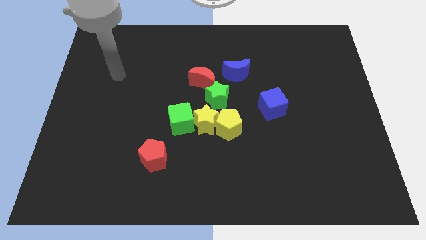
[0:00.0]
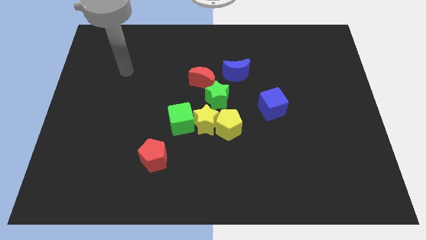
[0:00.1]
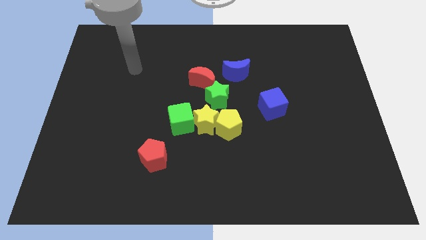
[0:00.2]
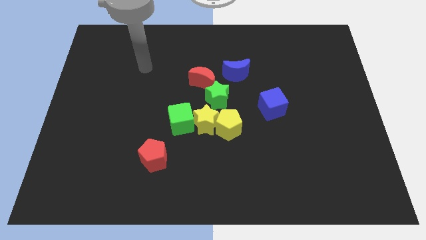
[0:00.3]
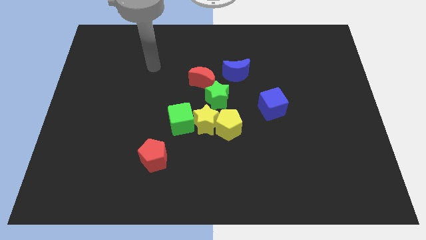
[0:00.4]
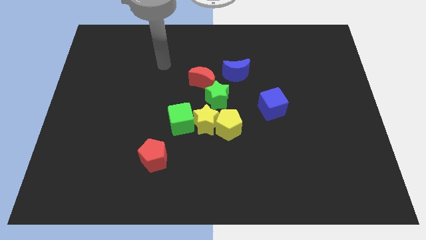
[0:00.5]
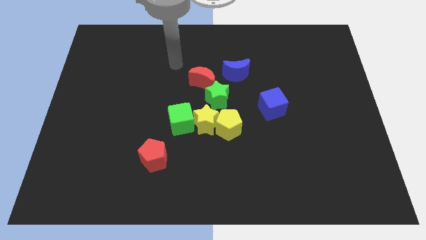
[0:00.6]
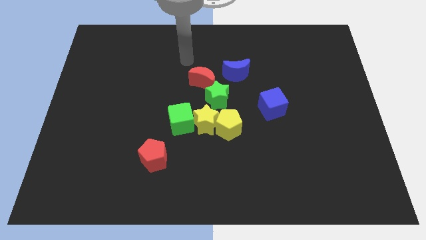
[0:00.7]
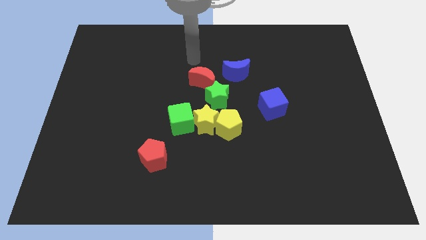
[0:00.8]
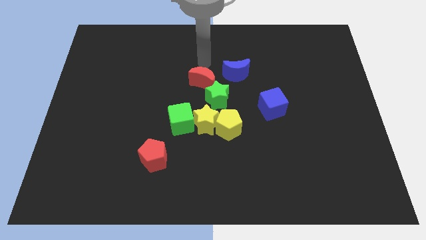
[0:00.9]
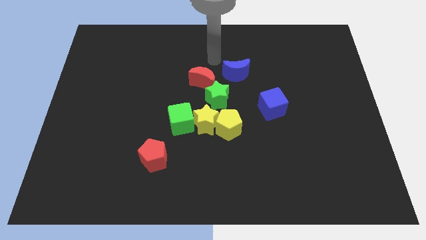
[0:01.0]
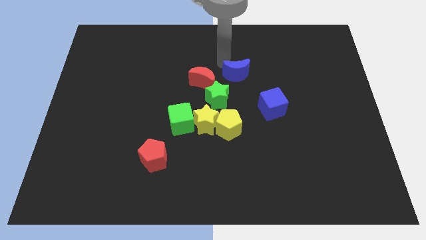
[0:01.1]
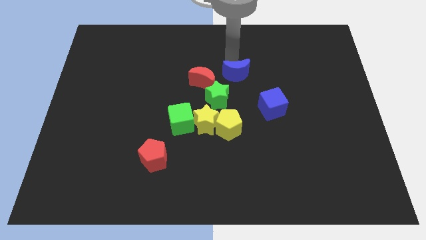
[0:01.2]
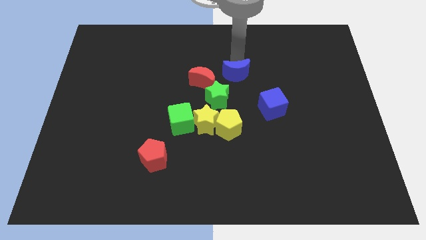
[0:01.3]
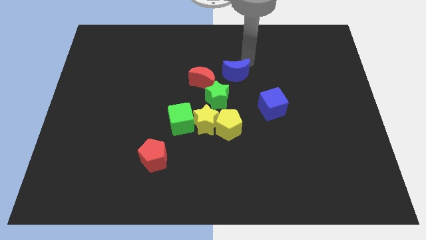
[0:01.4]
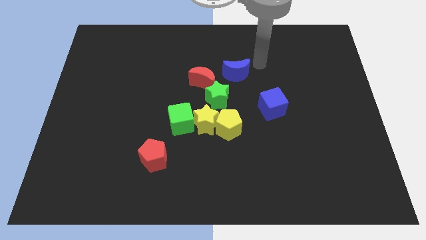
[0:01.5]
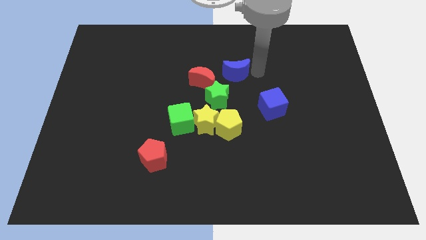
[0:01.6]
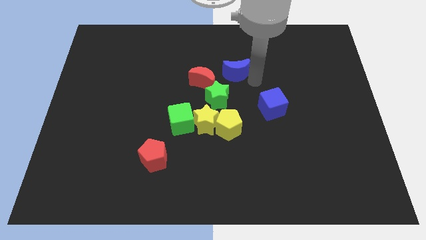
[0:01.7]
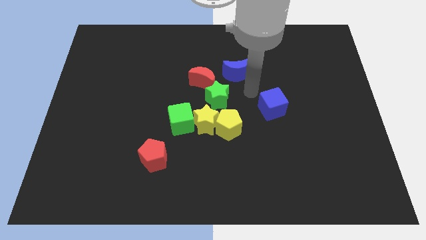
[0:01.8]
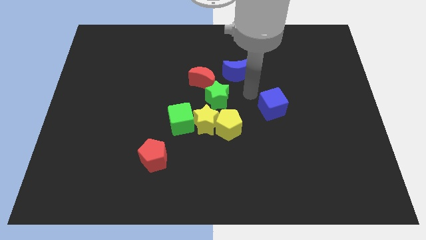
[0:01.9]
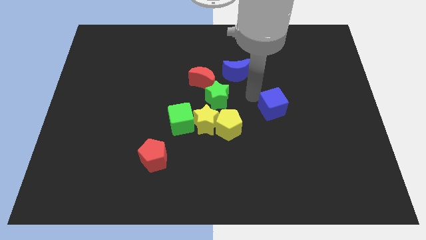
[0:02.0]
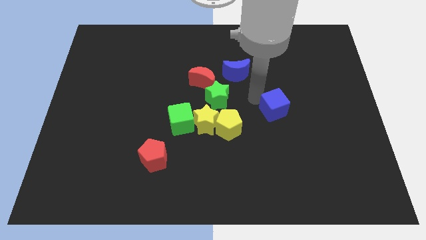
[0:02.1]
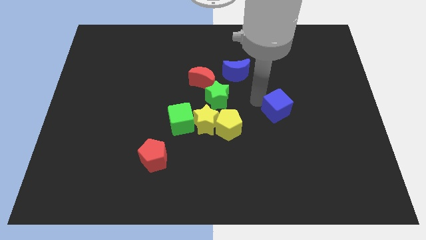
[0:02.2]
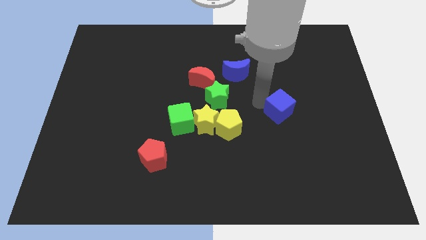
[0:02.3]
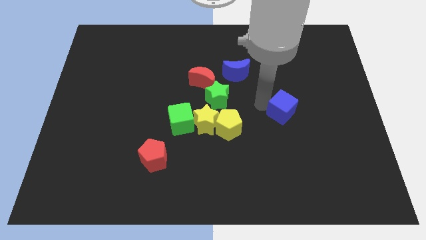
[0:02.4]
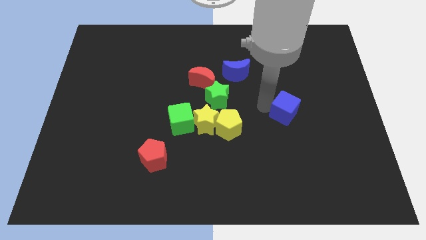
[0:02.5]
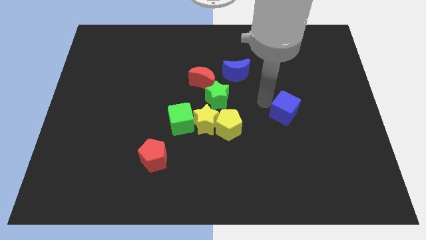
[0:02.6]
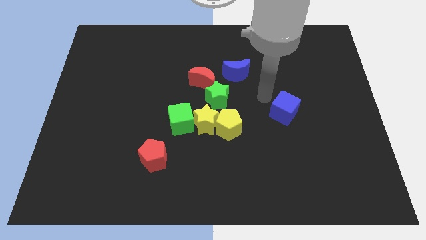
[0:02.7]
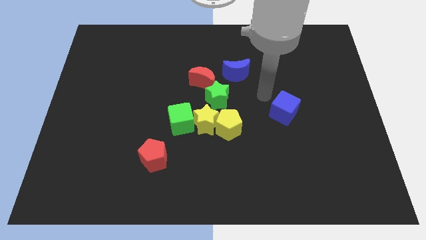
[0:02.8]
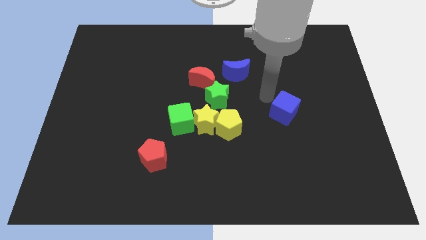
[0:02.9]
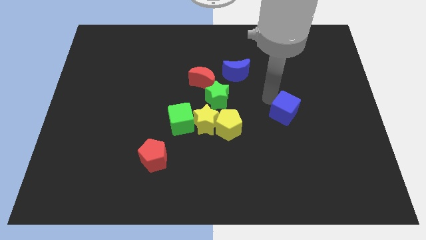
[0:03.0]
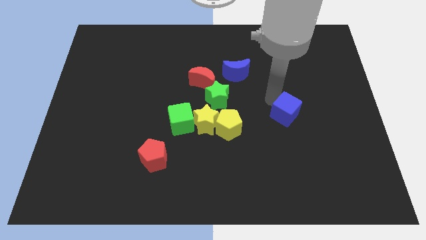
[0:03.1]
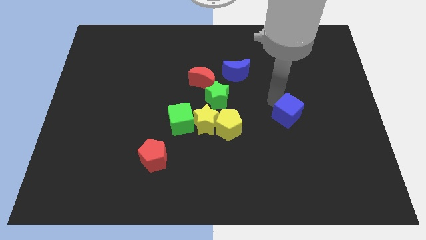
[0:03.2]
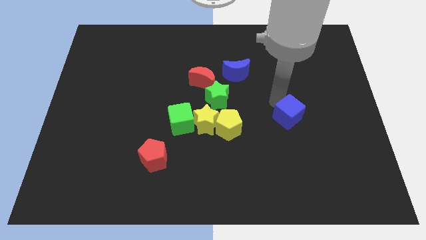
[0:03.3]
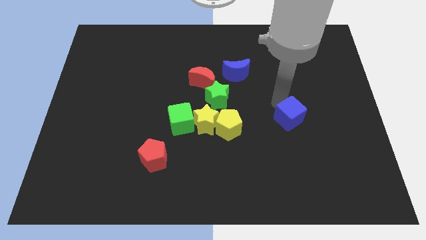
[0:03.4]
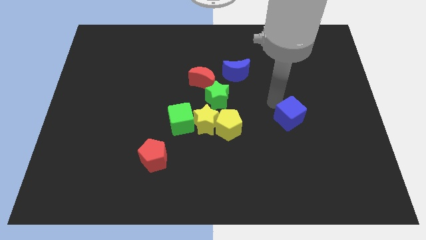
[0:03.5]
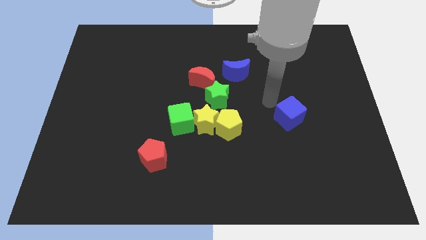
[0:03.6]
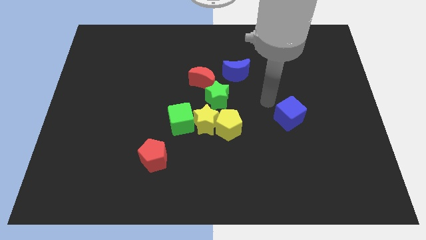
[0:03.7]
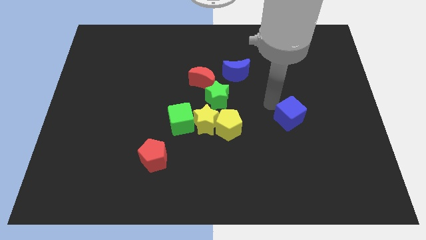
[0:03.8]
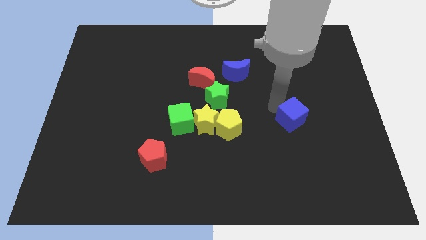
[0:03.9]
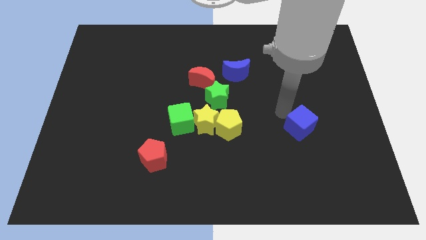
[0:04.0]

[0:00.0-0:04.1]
slightly move the blue cube down and then to the right

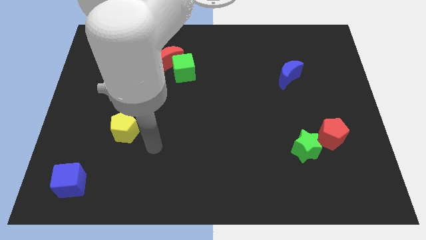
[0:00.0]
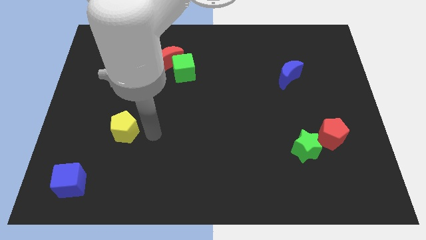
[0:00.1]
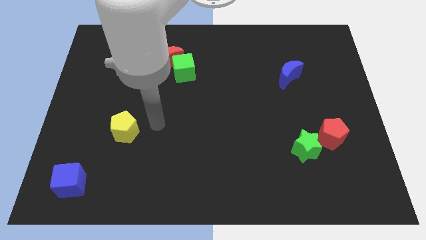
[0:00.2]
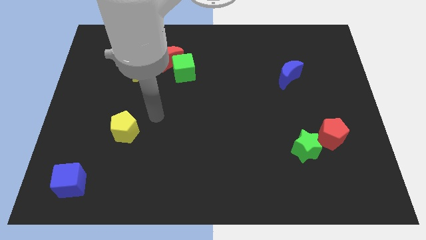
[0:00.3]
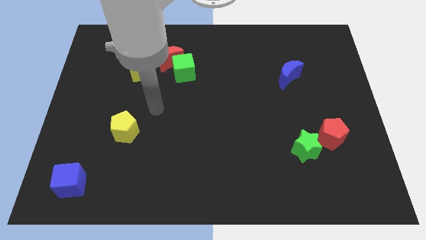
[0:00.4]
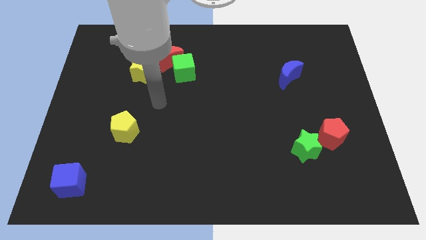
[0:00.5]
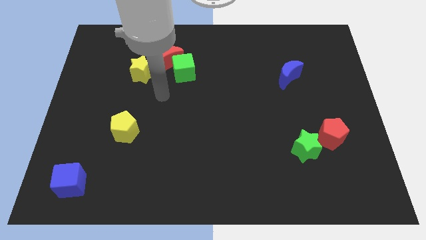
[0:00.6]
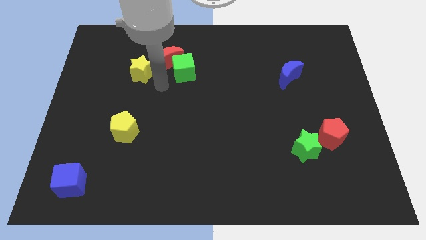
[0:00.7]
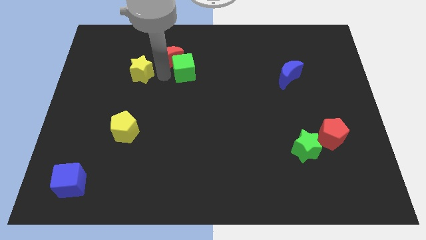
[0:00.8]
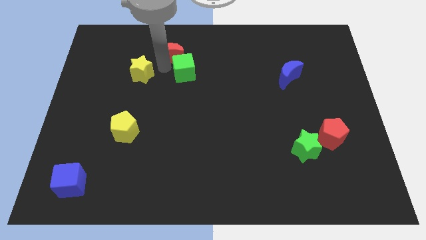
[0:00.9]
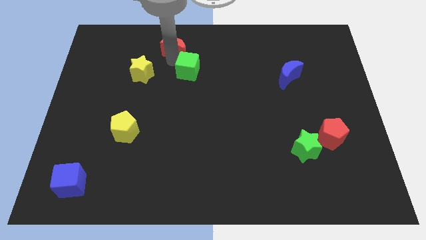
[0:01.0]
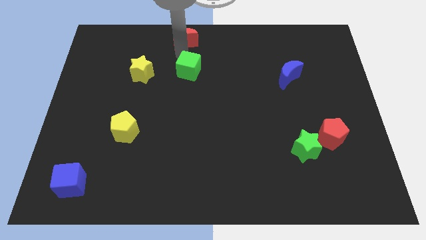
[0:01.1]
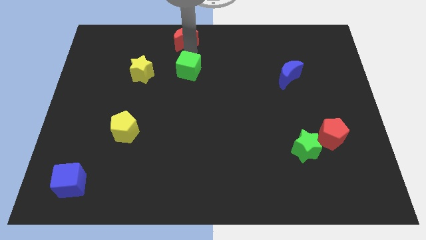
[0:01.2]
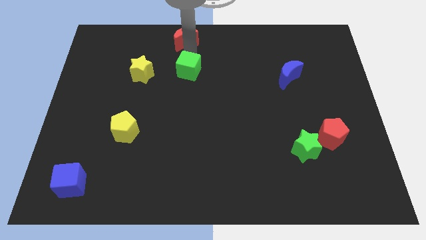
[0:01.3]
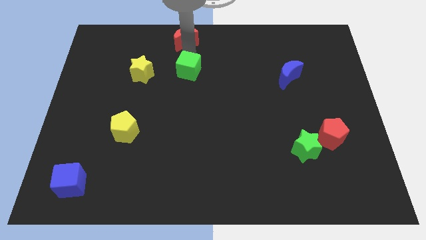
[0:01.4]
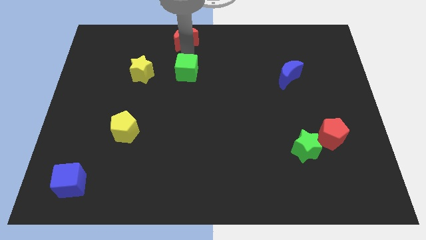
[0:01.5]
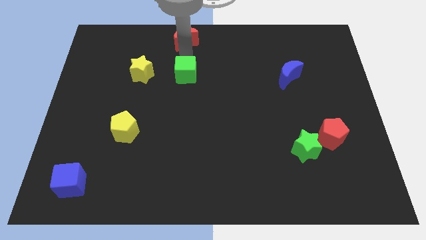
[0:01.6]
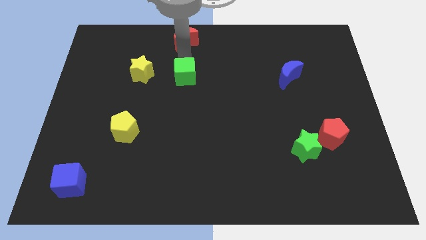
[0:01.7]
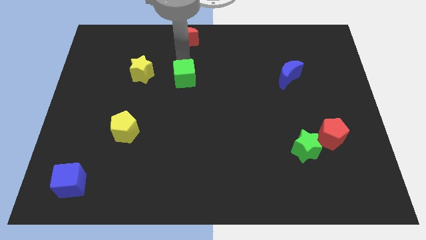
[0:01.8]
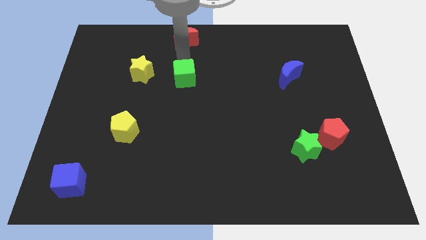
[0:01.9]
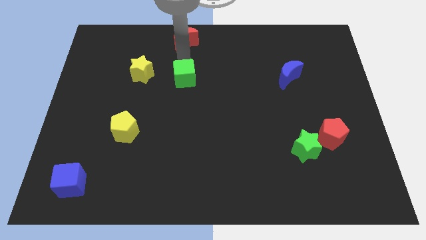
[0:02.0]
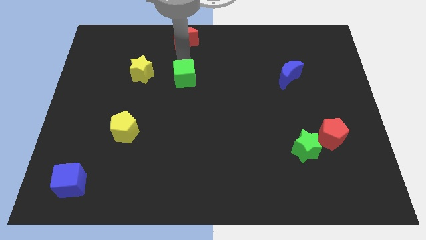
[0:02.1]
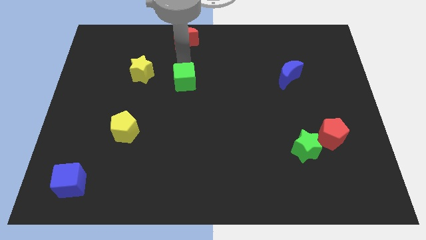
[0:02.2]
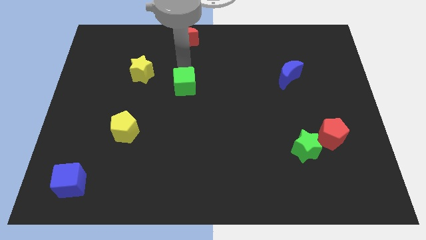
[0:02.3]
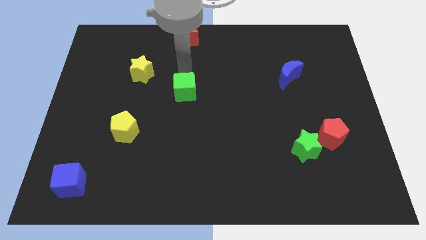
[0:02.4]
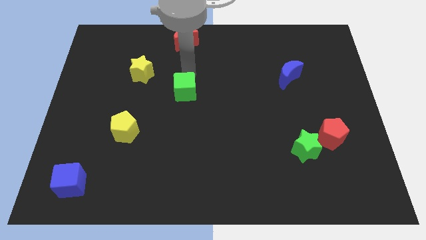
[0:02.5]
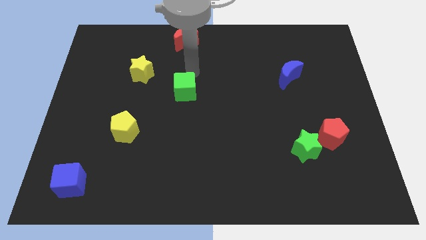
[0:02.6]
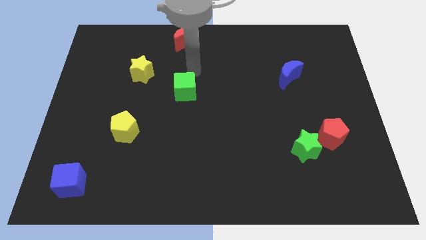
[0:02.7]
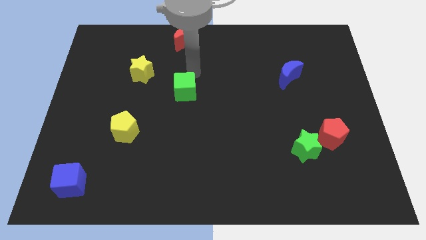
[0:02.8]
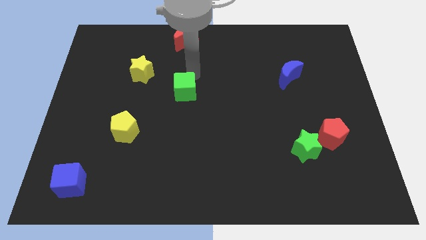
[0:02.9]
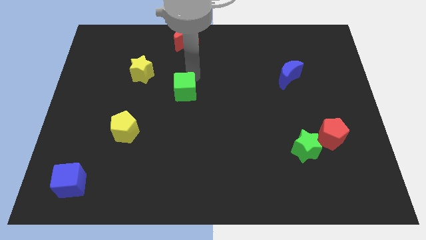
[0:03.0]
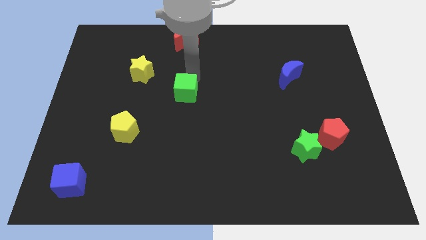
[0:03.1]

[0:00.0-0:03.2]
move the green cube downwards a little bit

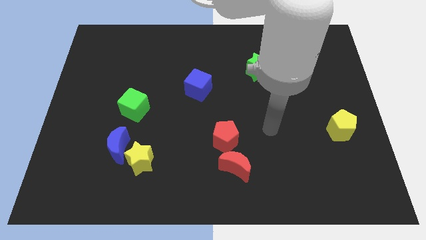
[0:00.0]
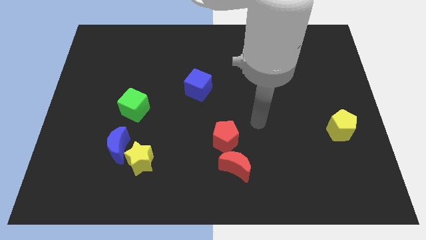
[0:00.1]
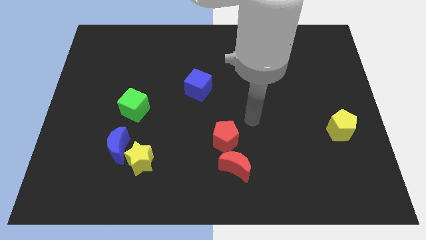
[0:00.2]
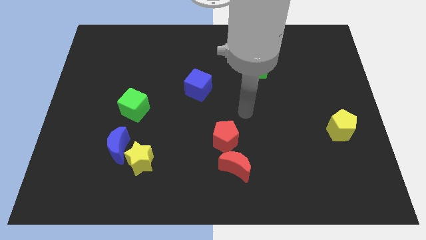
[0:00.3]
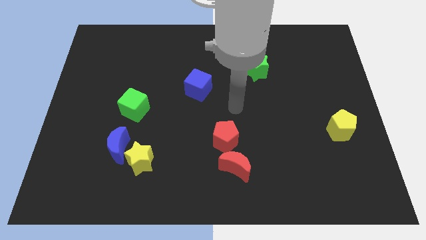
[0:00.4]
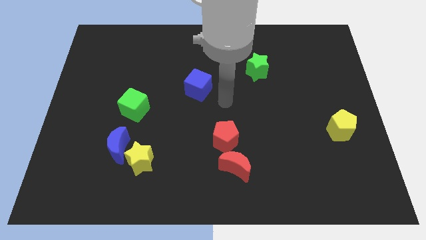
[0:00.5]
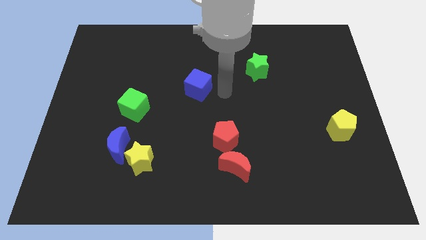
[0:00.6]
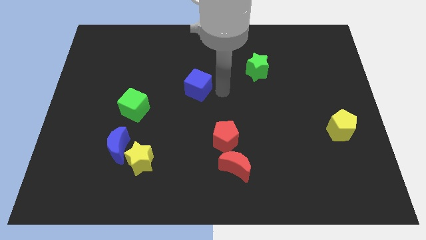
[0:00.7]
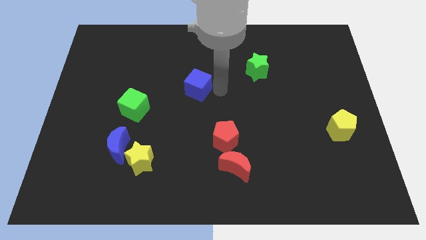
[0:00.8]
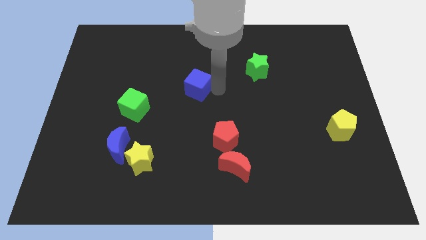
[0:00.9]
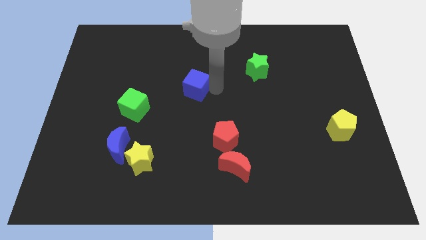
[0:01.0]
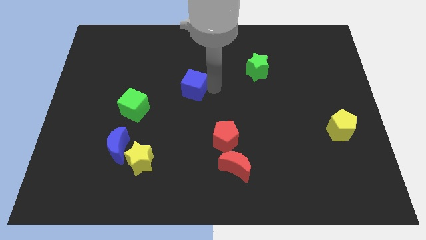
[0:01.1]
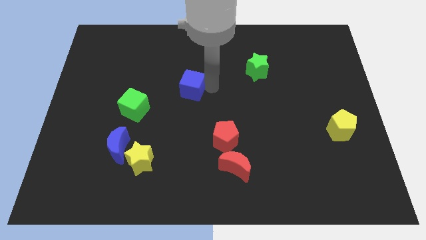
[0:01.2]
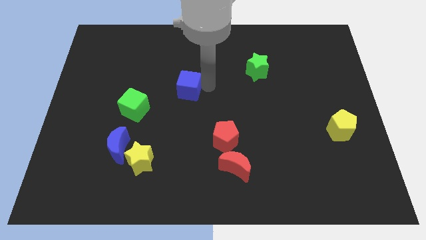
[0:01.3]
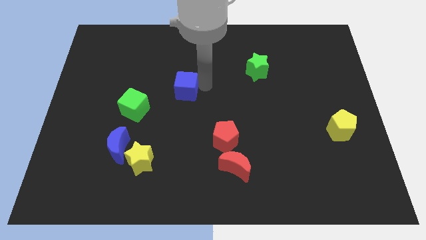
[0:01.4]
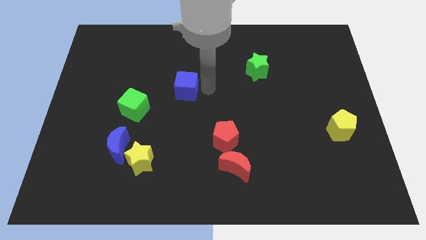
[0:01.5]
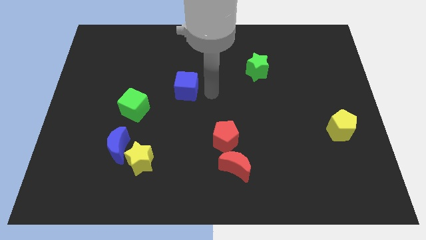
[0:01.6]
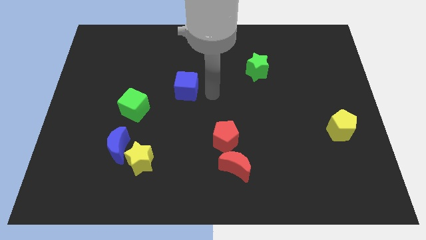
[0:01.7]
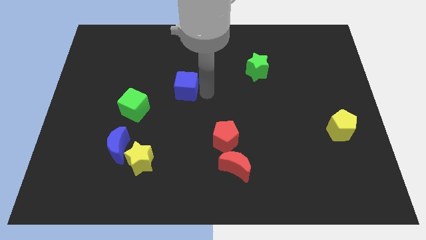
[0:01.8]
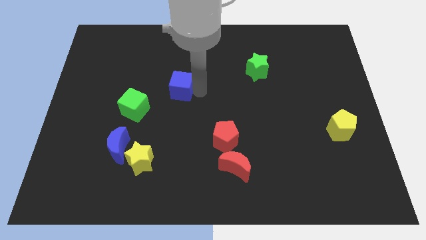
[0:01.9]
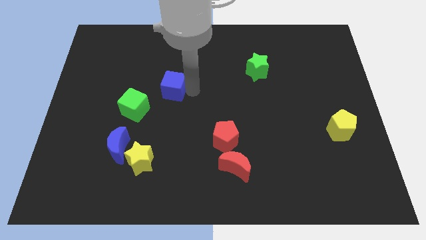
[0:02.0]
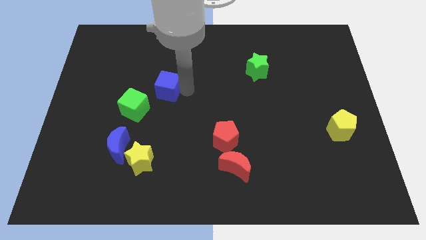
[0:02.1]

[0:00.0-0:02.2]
slide the blue cube slightly to the left
